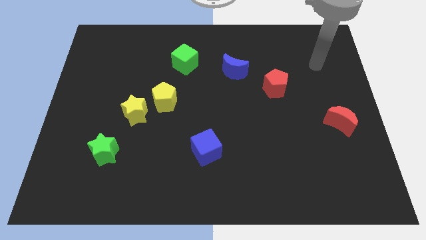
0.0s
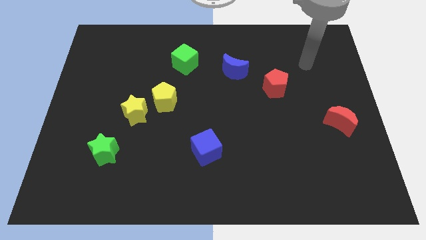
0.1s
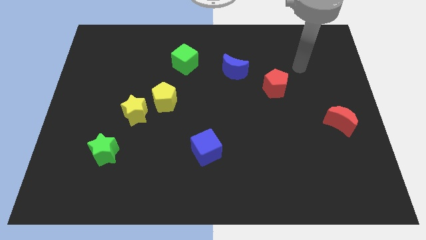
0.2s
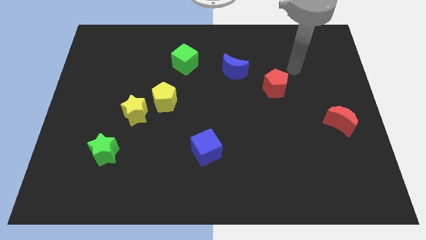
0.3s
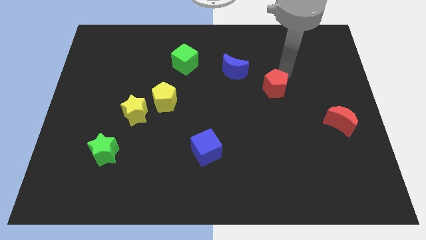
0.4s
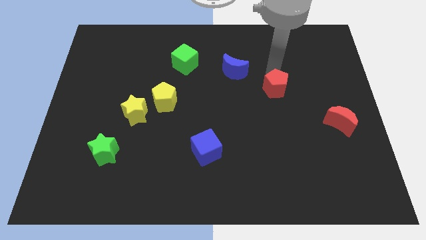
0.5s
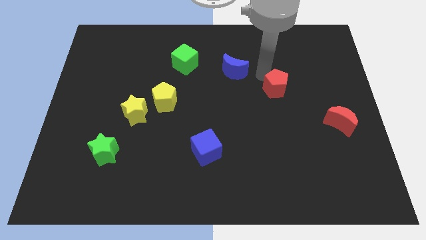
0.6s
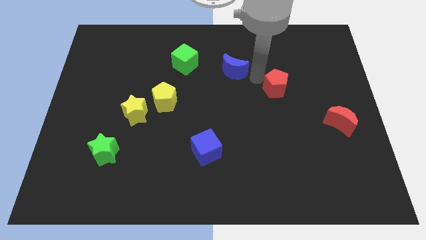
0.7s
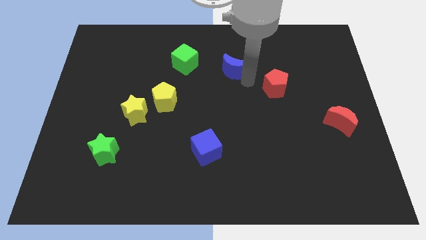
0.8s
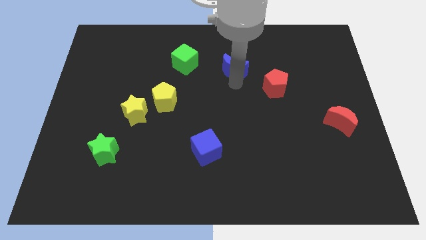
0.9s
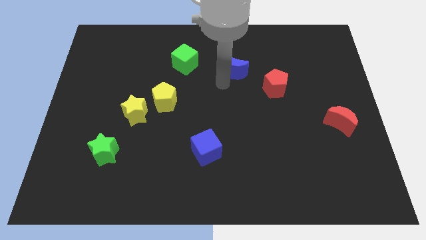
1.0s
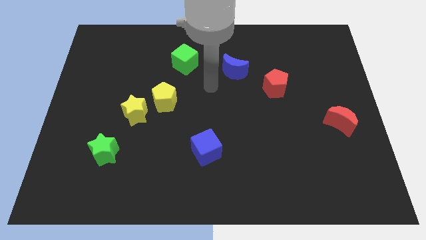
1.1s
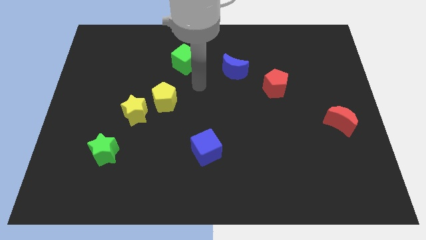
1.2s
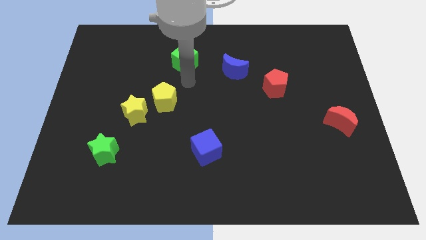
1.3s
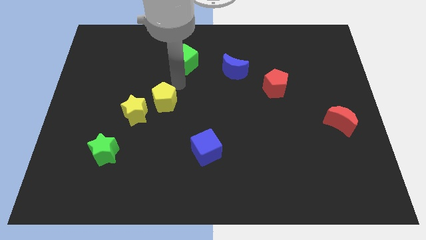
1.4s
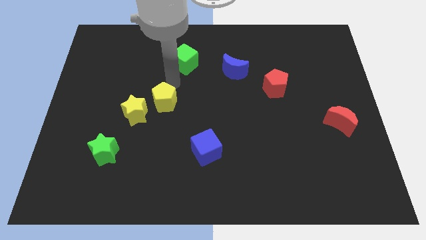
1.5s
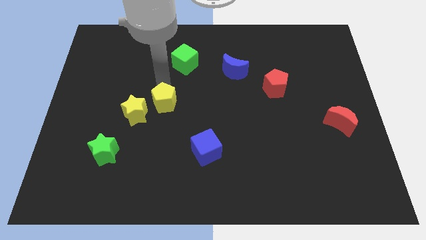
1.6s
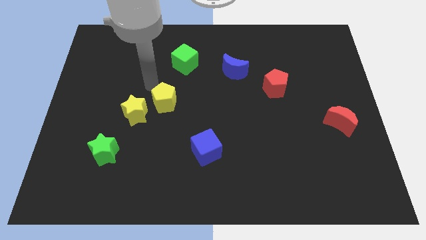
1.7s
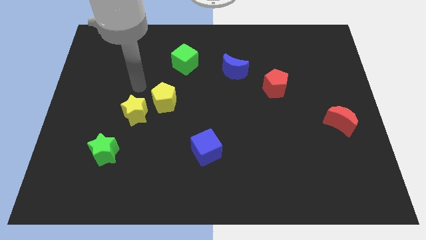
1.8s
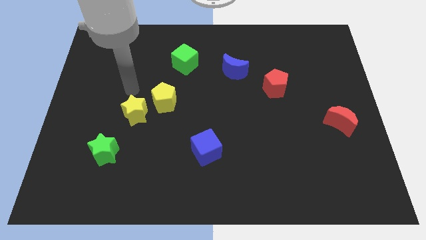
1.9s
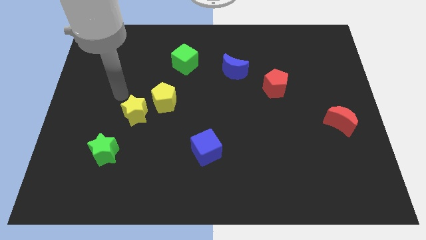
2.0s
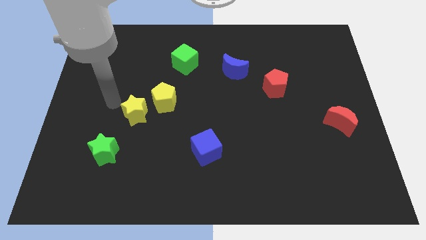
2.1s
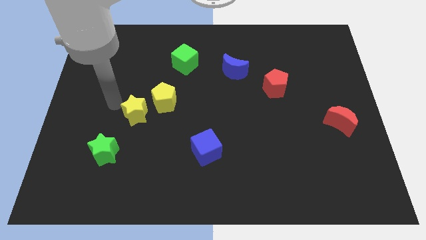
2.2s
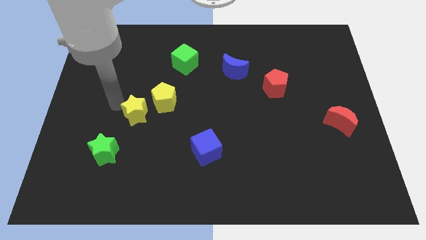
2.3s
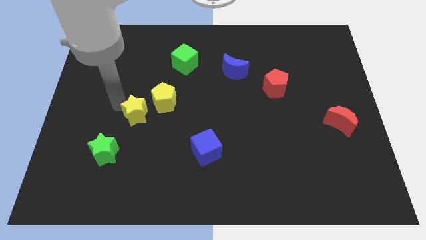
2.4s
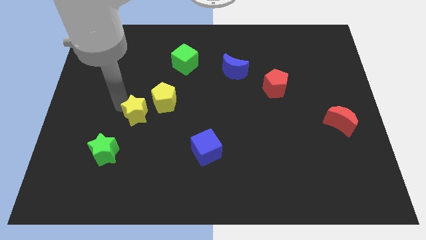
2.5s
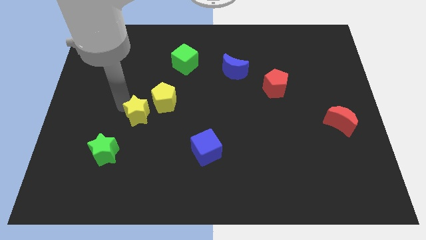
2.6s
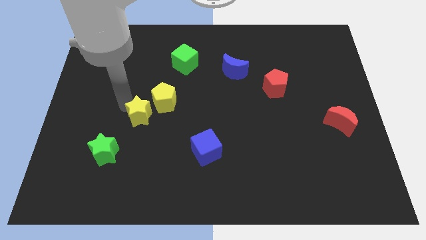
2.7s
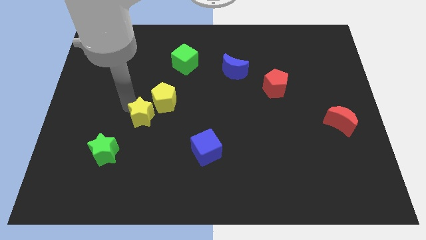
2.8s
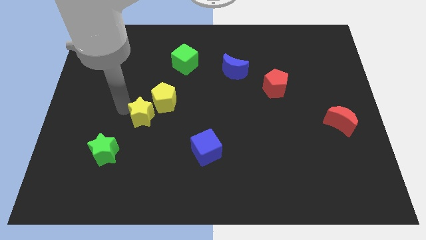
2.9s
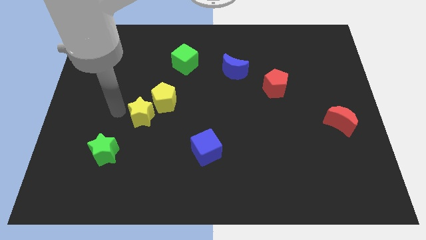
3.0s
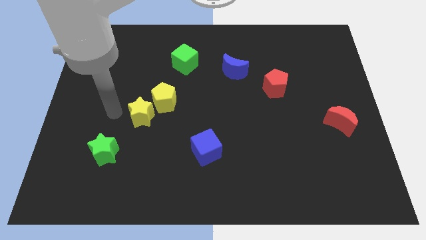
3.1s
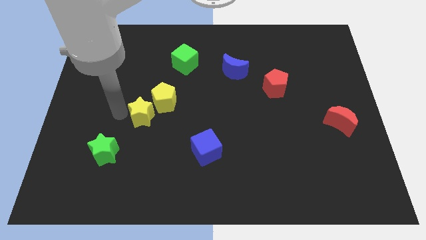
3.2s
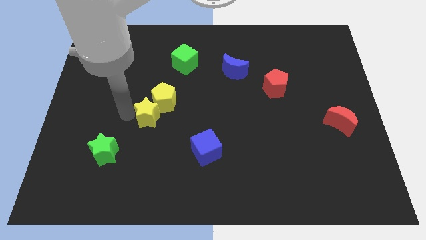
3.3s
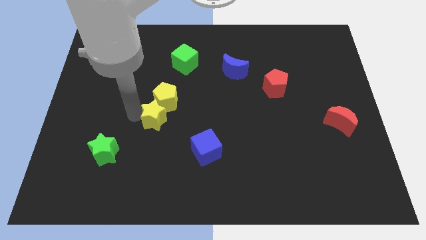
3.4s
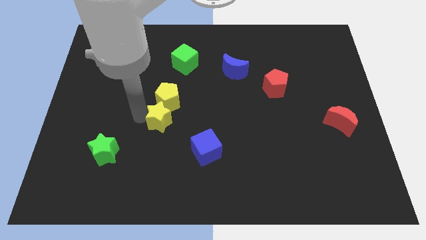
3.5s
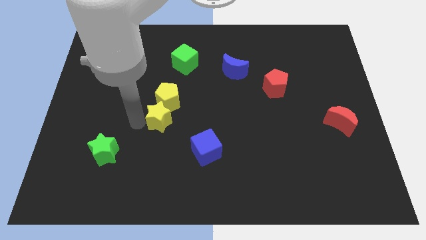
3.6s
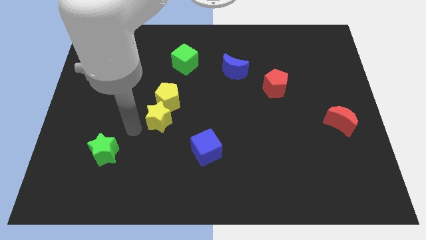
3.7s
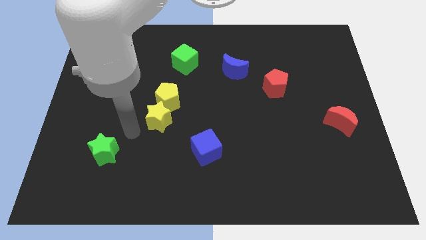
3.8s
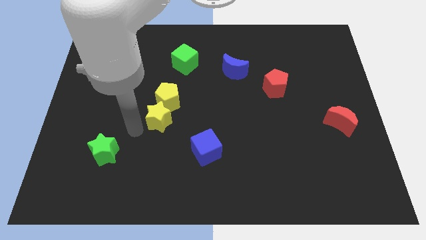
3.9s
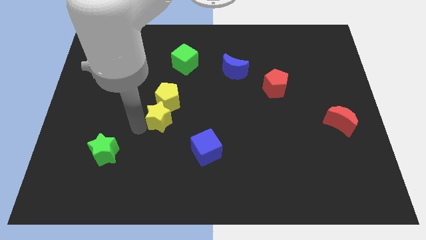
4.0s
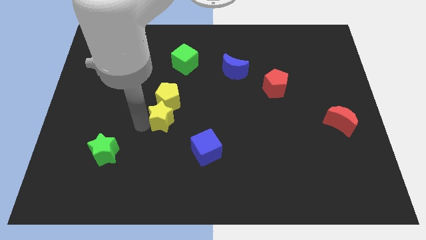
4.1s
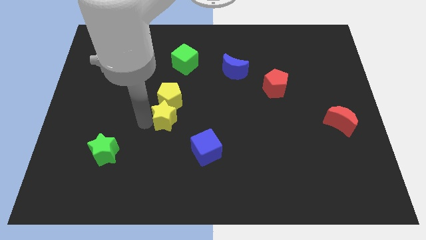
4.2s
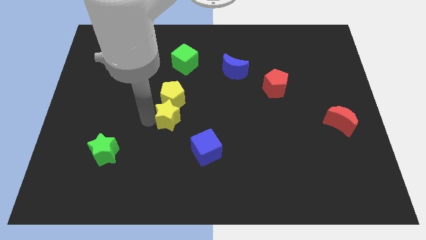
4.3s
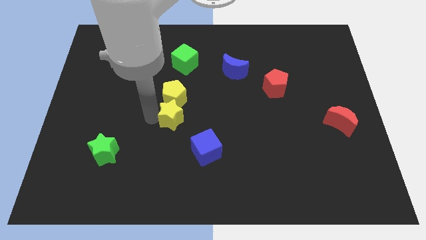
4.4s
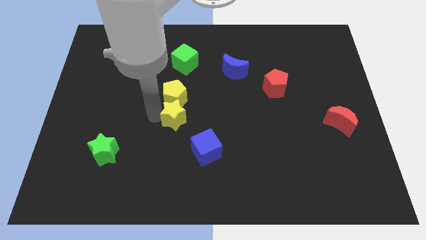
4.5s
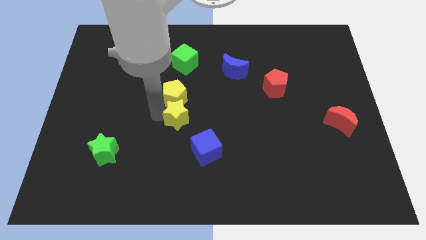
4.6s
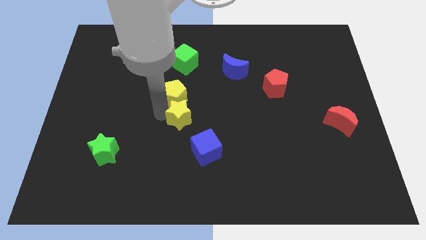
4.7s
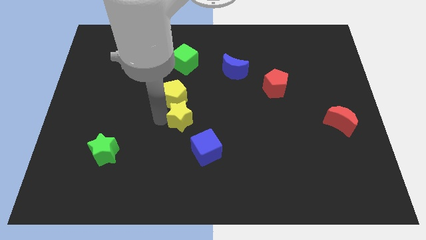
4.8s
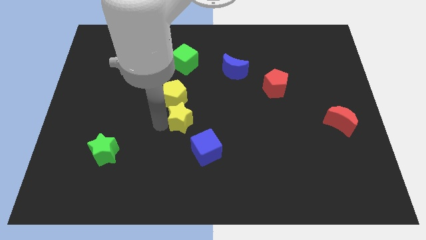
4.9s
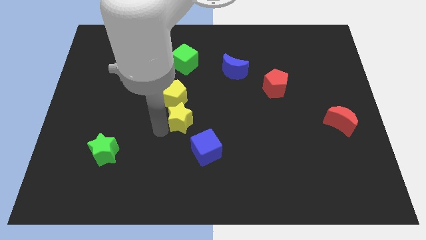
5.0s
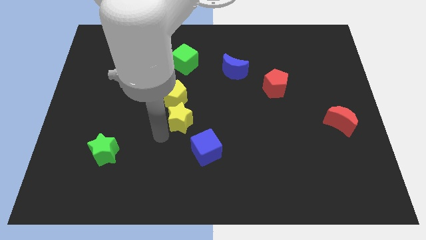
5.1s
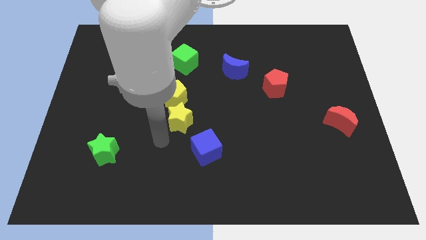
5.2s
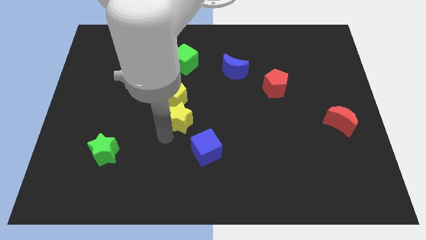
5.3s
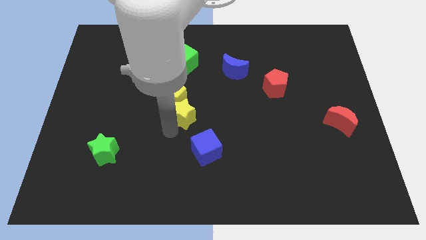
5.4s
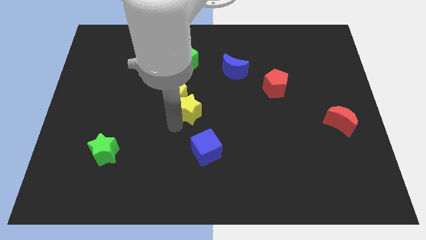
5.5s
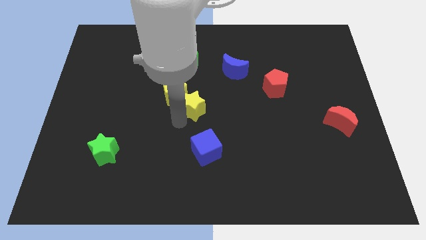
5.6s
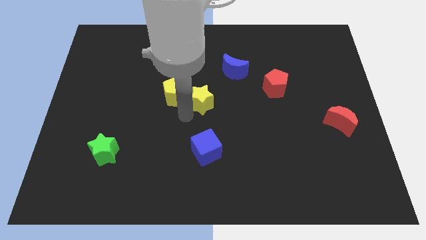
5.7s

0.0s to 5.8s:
push the yellow star to the bottom left side of the blue moon
